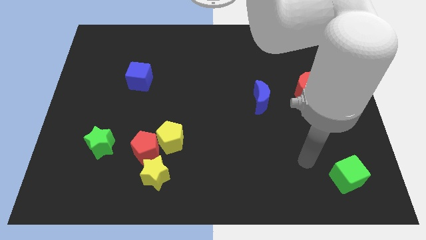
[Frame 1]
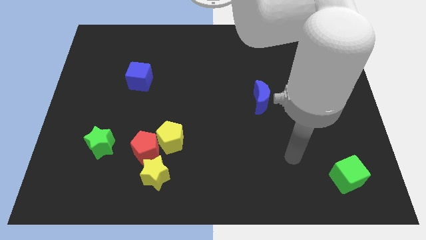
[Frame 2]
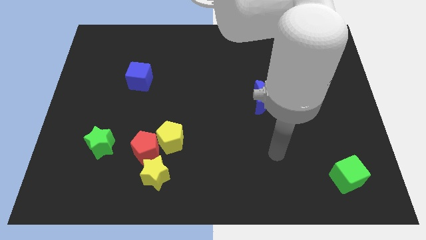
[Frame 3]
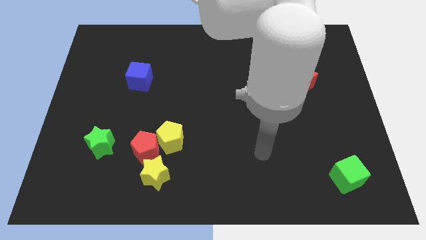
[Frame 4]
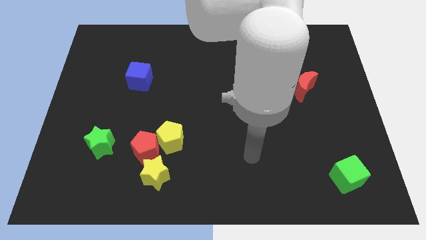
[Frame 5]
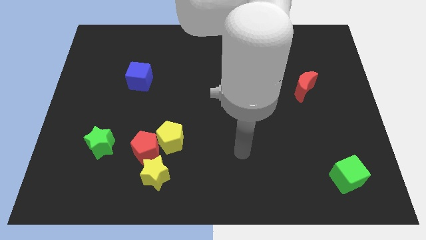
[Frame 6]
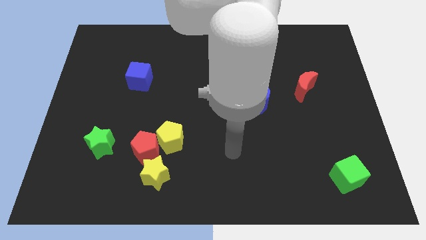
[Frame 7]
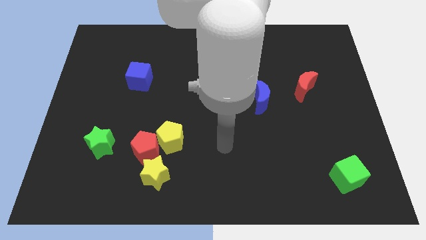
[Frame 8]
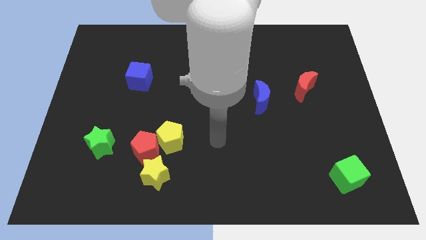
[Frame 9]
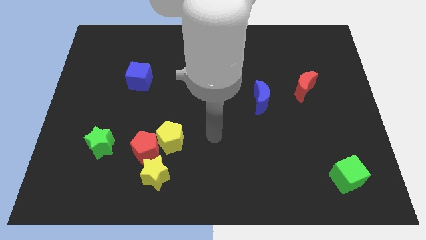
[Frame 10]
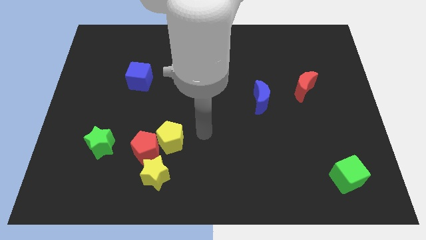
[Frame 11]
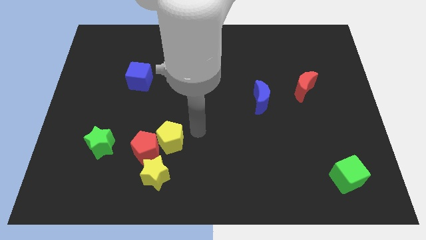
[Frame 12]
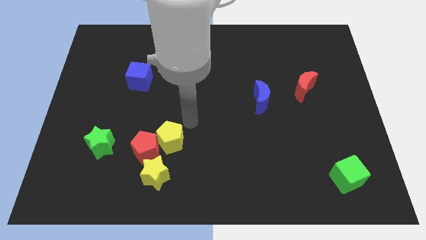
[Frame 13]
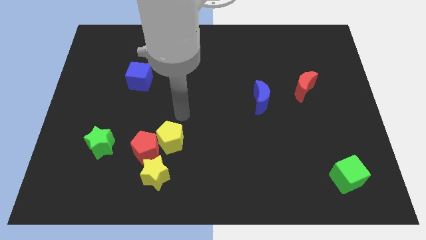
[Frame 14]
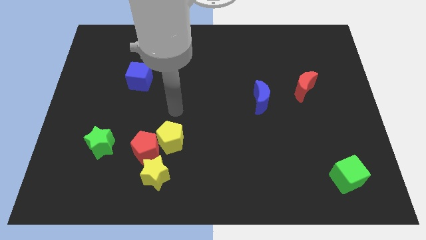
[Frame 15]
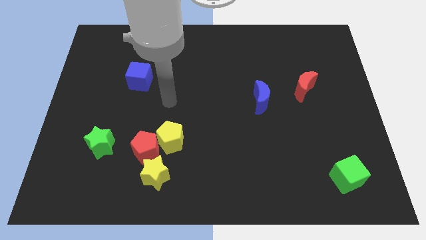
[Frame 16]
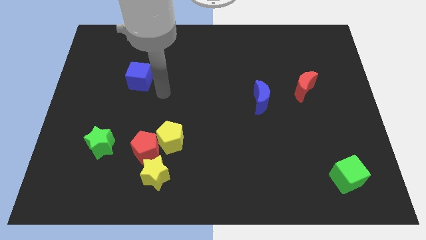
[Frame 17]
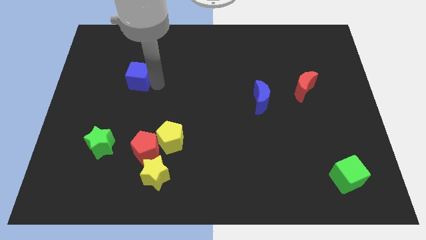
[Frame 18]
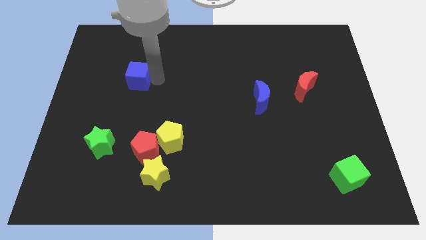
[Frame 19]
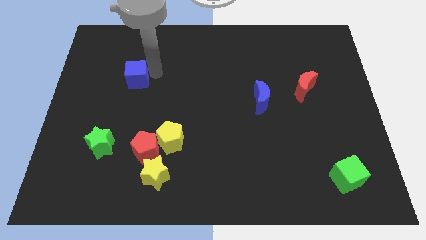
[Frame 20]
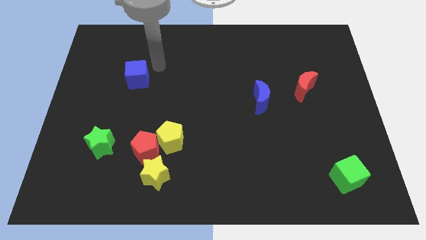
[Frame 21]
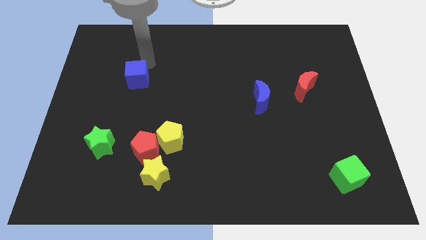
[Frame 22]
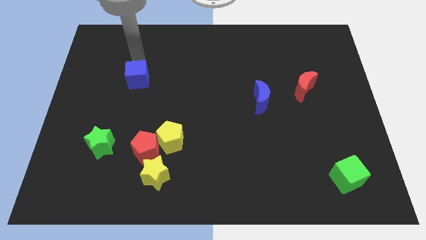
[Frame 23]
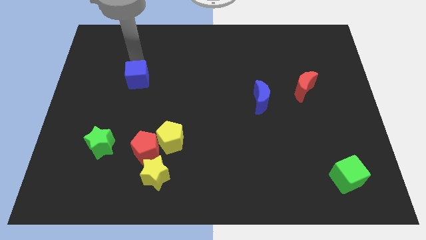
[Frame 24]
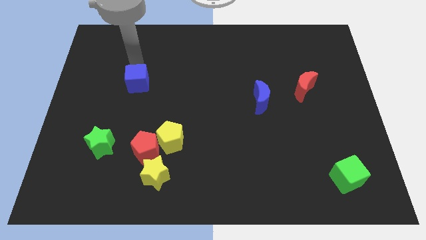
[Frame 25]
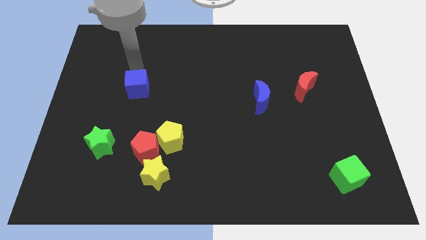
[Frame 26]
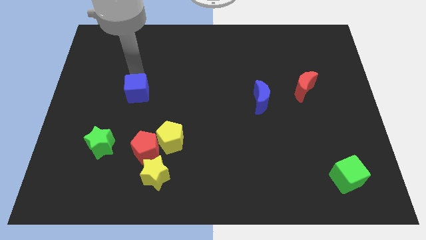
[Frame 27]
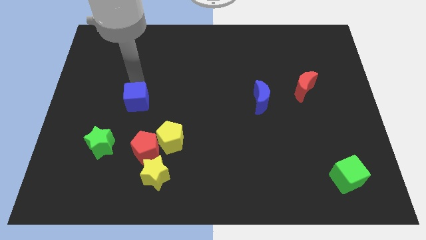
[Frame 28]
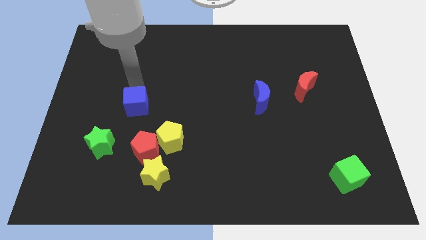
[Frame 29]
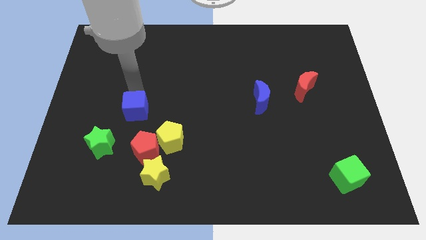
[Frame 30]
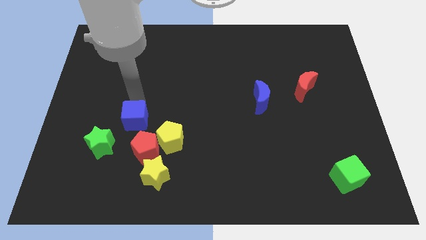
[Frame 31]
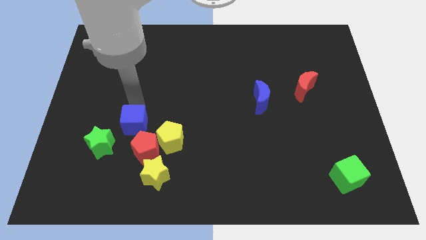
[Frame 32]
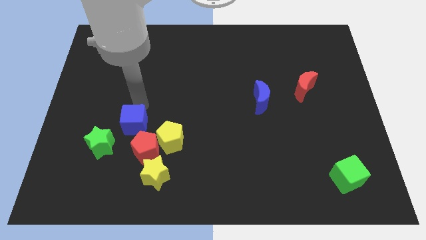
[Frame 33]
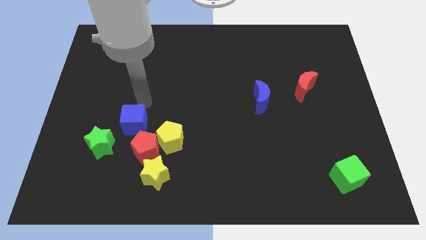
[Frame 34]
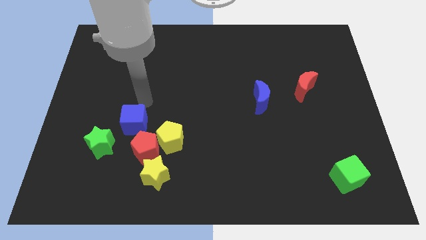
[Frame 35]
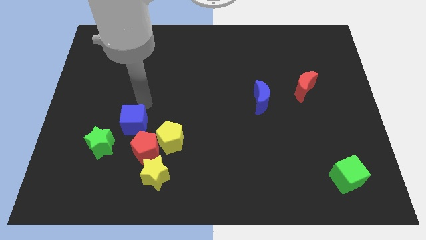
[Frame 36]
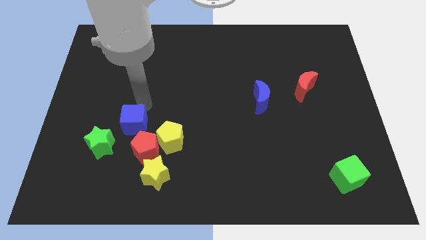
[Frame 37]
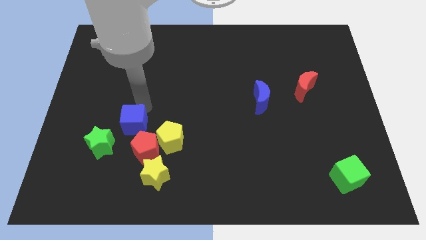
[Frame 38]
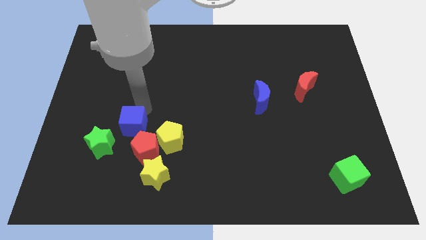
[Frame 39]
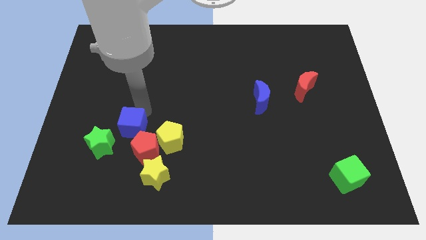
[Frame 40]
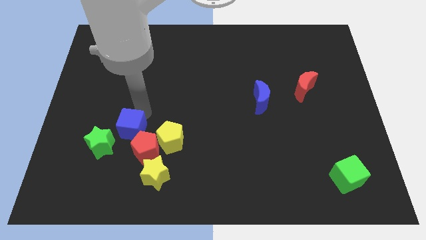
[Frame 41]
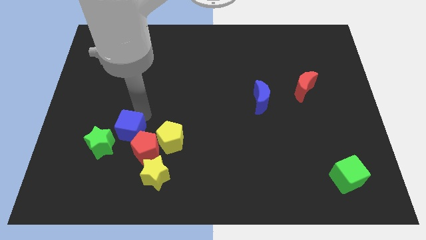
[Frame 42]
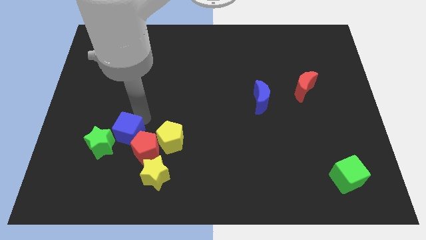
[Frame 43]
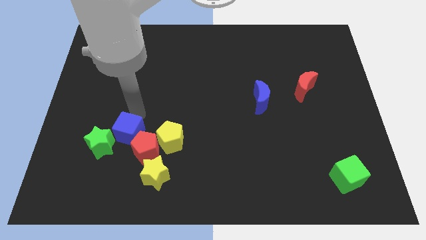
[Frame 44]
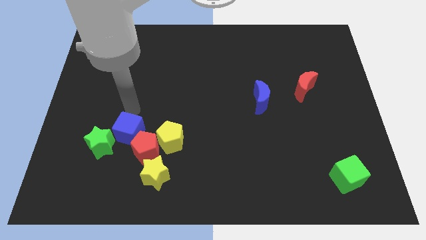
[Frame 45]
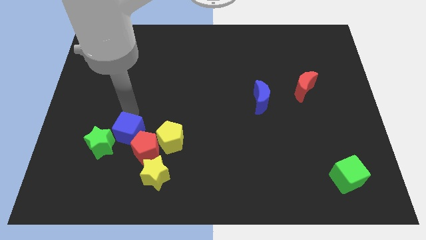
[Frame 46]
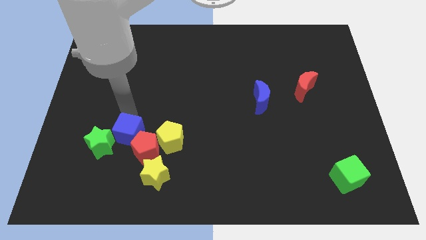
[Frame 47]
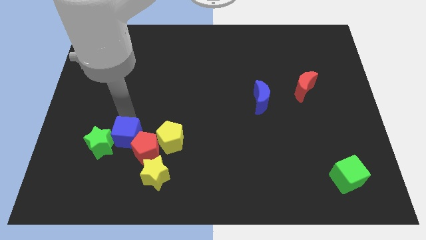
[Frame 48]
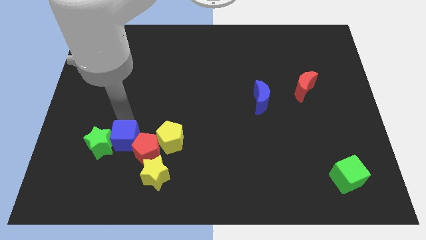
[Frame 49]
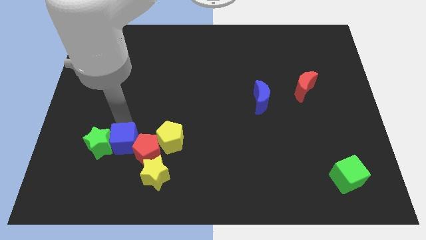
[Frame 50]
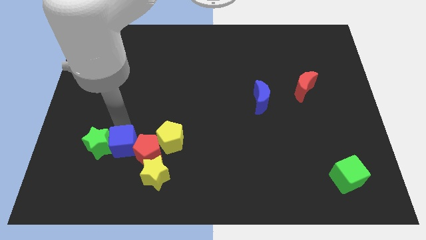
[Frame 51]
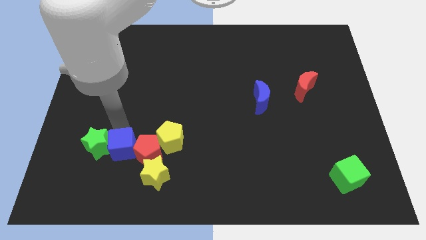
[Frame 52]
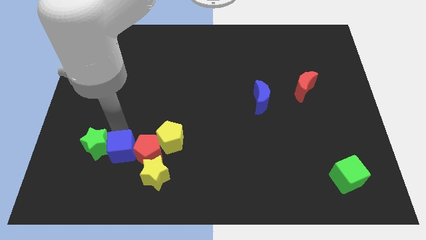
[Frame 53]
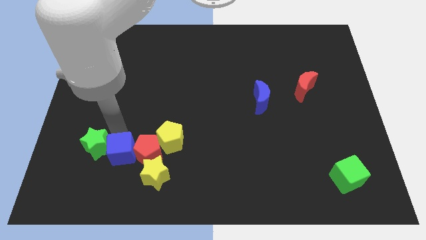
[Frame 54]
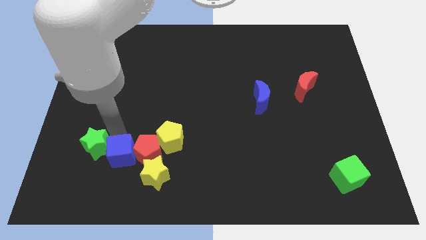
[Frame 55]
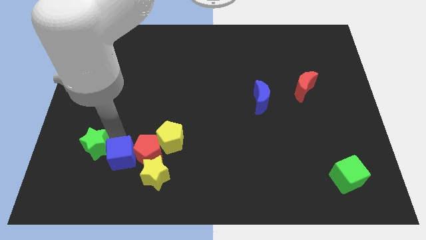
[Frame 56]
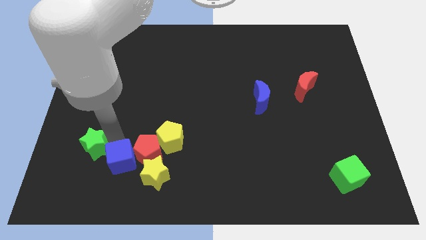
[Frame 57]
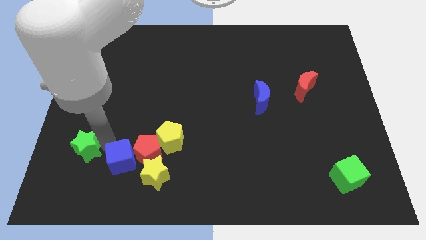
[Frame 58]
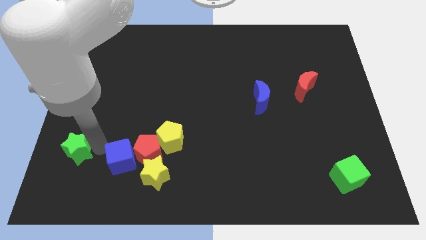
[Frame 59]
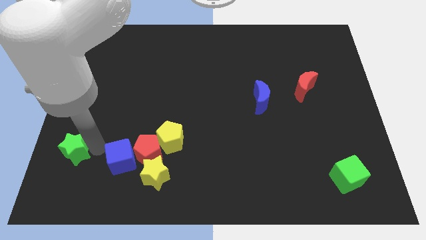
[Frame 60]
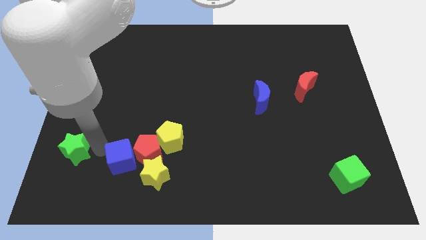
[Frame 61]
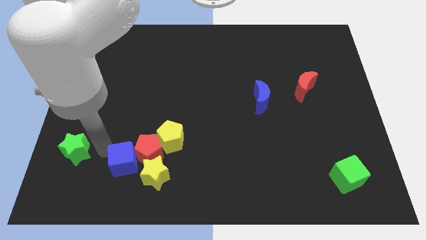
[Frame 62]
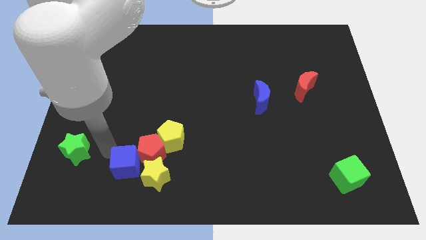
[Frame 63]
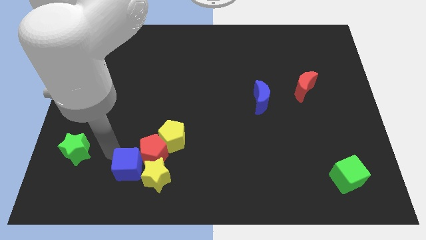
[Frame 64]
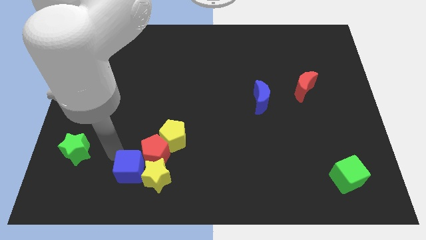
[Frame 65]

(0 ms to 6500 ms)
move the blue cube next to the yellow star

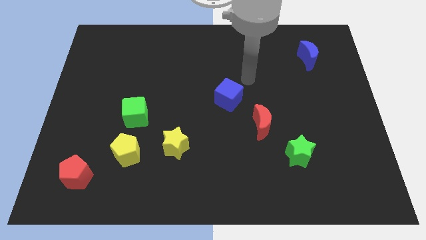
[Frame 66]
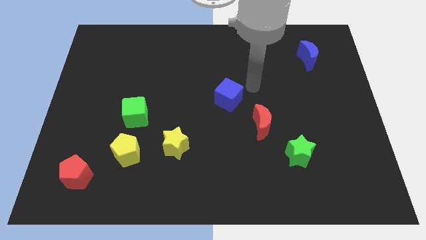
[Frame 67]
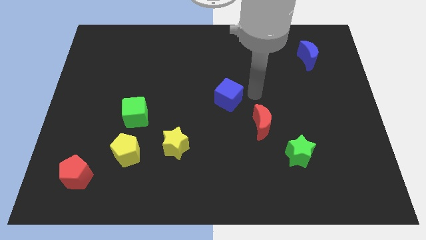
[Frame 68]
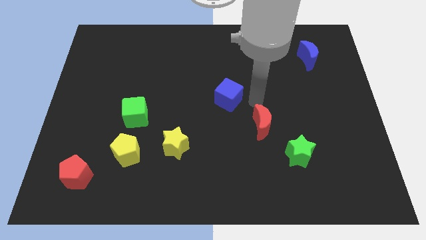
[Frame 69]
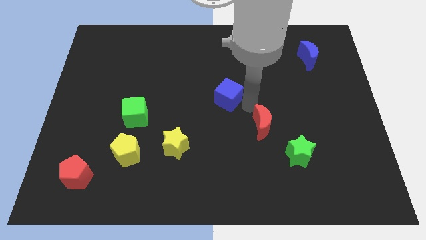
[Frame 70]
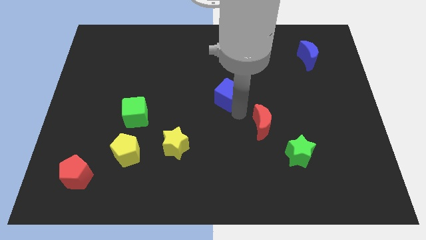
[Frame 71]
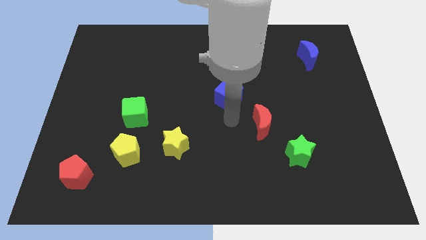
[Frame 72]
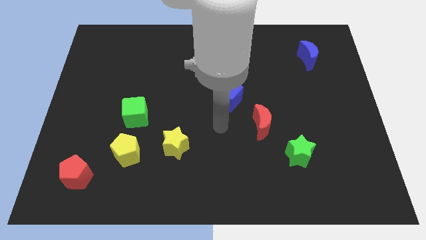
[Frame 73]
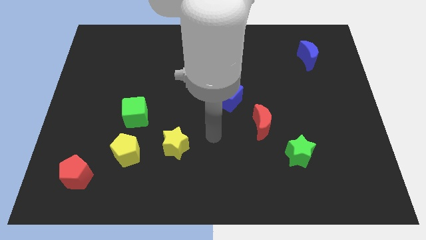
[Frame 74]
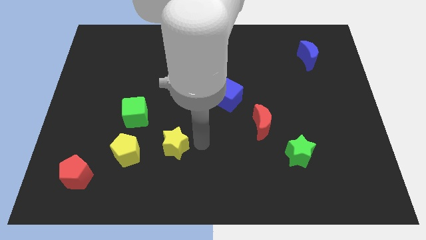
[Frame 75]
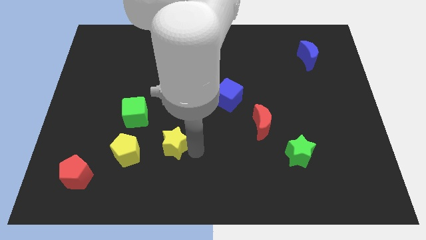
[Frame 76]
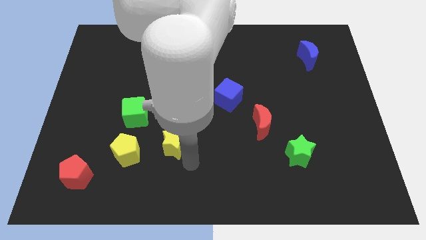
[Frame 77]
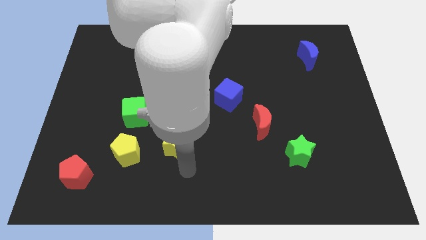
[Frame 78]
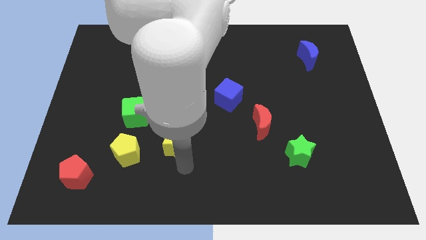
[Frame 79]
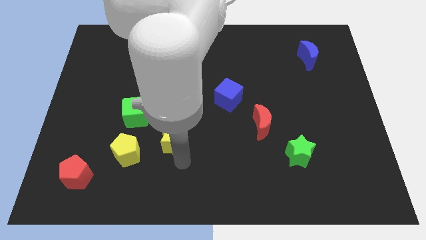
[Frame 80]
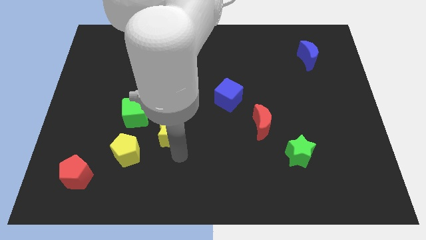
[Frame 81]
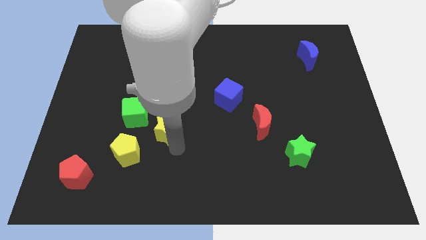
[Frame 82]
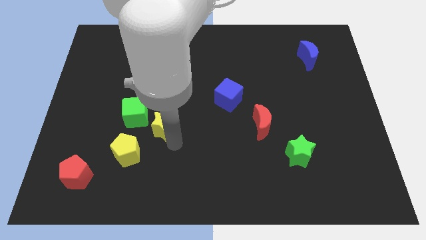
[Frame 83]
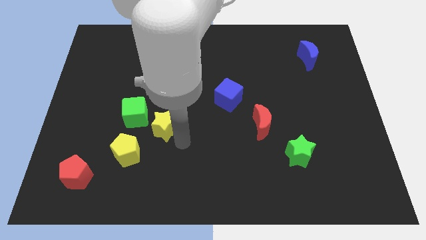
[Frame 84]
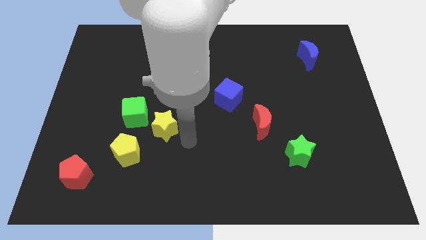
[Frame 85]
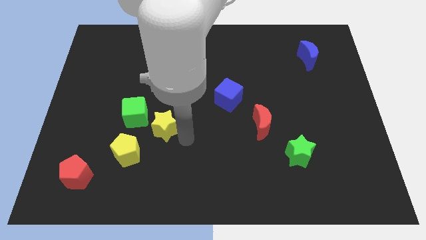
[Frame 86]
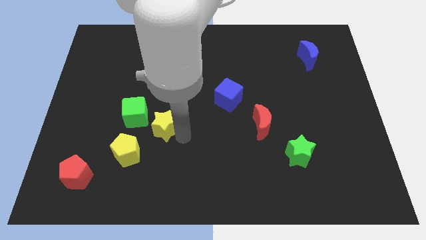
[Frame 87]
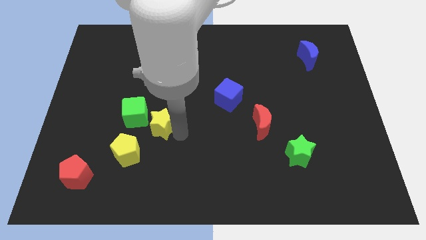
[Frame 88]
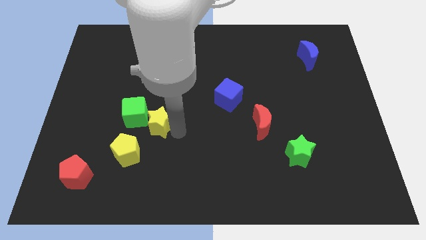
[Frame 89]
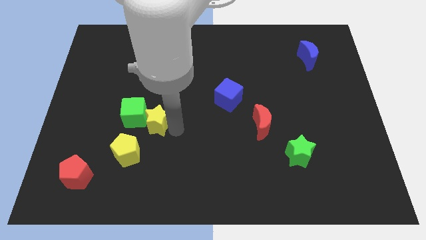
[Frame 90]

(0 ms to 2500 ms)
slide the yellow star towards the green cube
